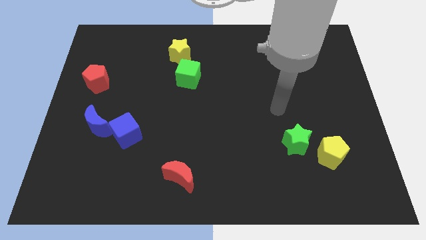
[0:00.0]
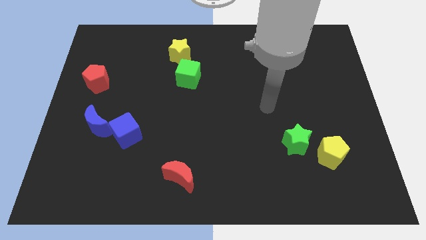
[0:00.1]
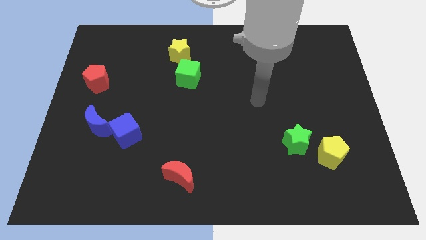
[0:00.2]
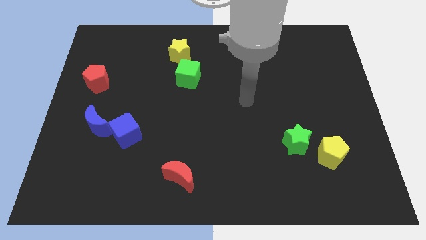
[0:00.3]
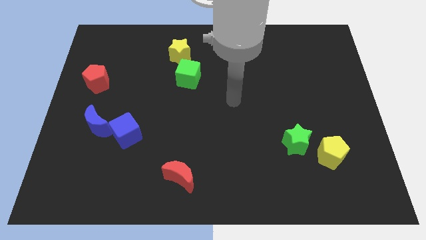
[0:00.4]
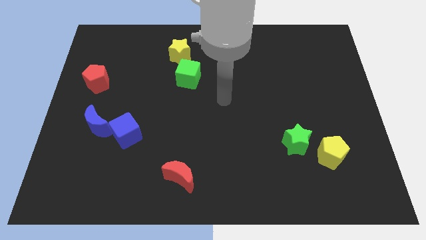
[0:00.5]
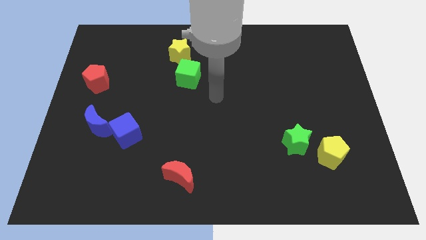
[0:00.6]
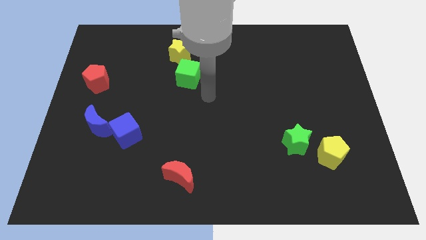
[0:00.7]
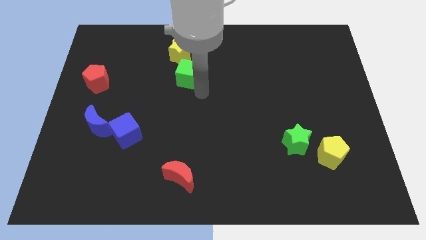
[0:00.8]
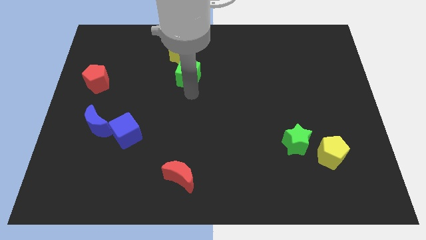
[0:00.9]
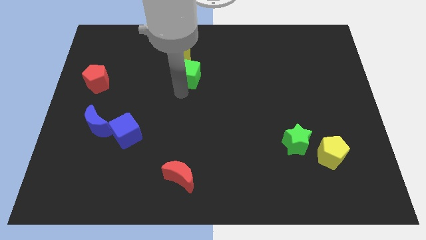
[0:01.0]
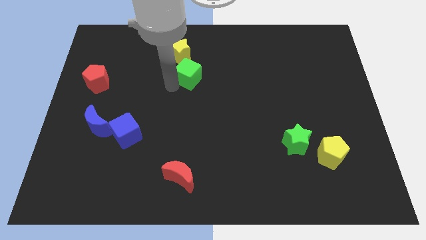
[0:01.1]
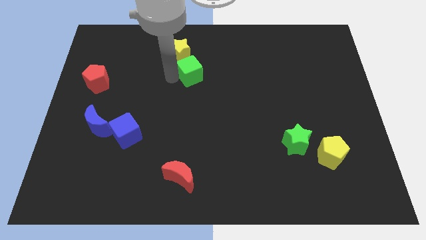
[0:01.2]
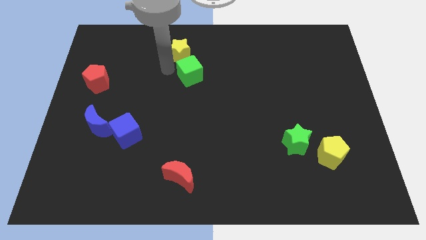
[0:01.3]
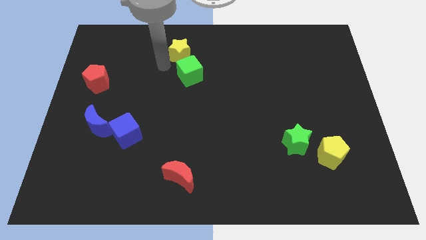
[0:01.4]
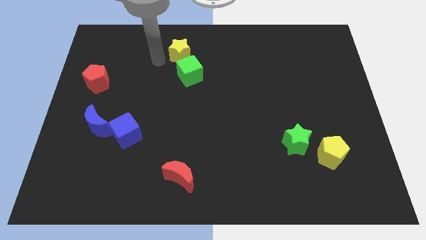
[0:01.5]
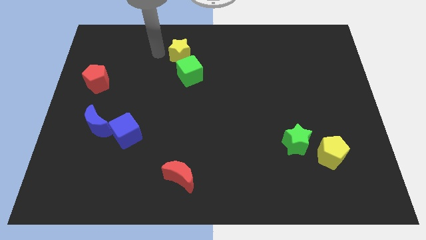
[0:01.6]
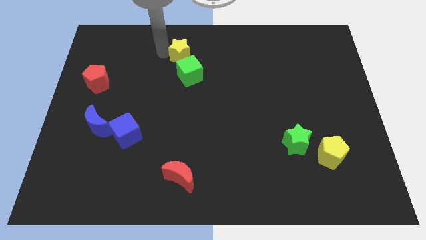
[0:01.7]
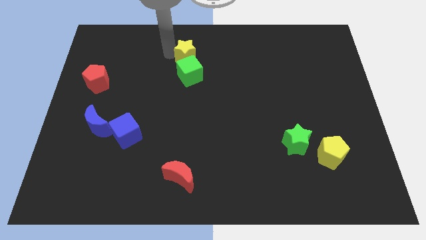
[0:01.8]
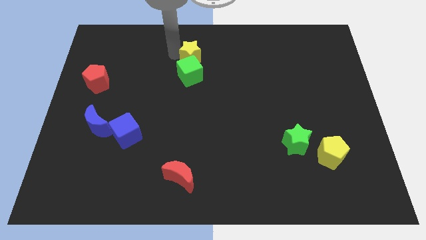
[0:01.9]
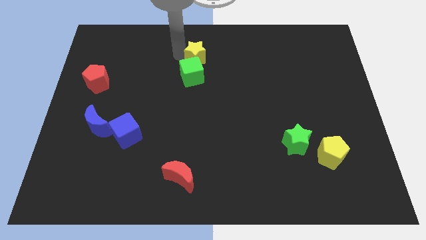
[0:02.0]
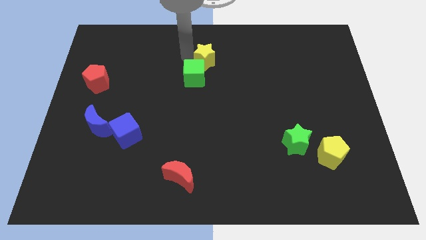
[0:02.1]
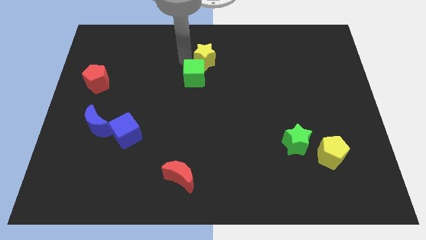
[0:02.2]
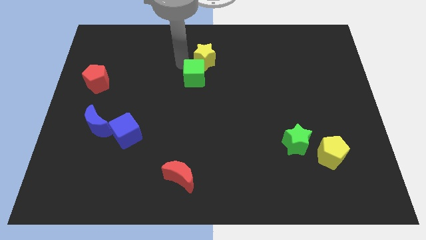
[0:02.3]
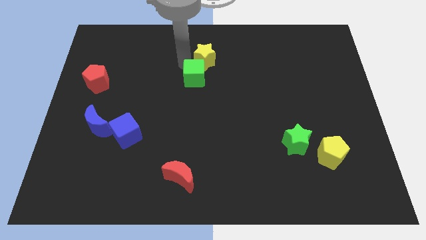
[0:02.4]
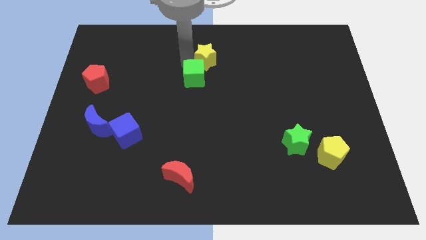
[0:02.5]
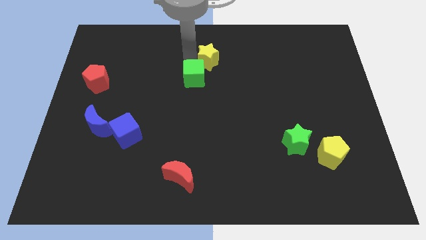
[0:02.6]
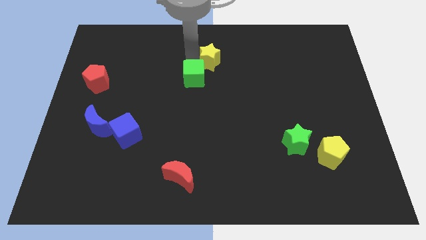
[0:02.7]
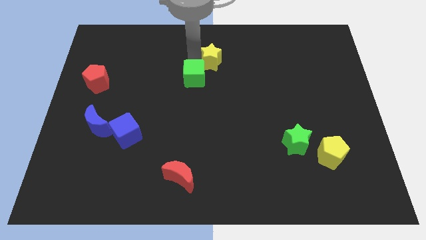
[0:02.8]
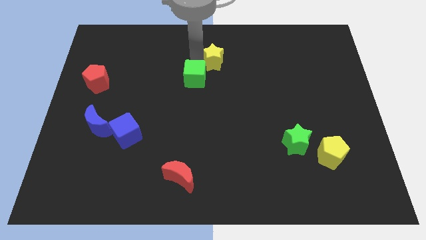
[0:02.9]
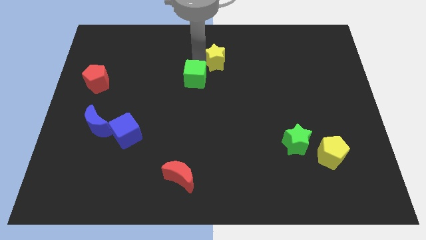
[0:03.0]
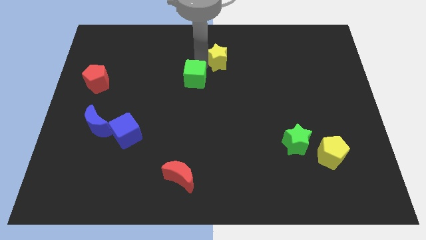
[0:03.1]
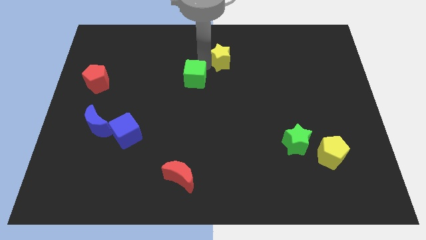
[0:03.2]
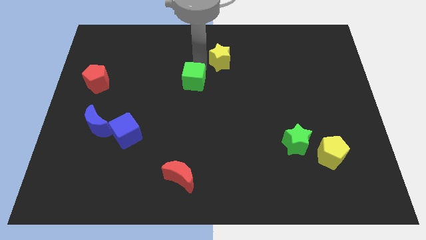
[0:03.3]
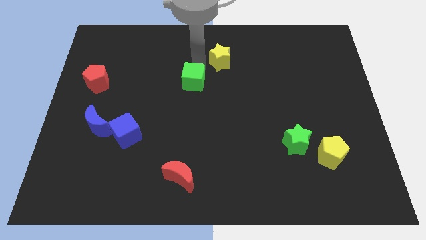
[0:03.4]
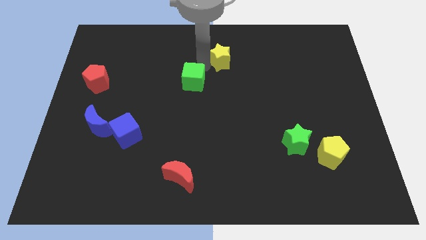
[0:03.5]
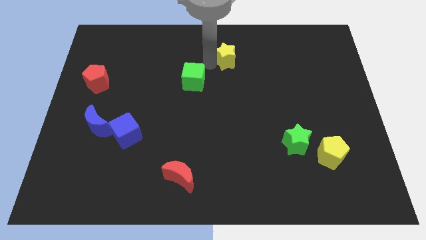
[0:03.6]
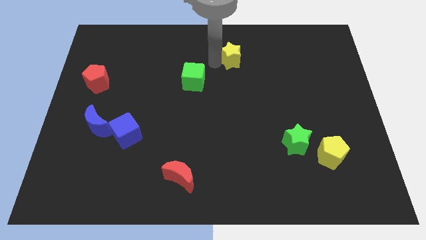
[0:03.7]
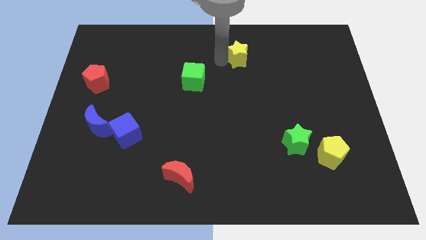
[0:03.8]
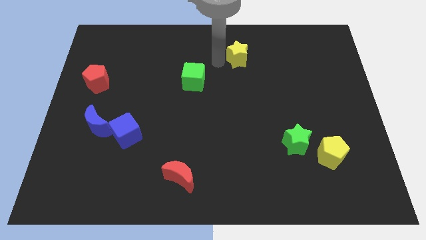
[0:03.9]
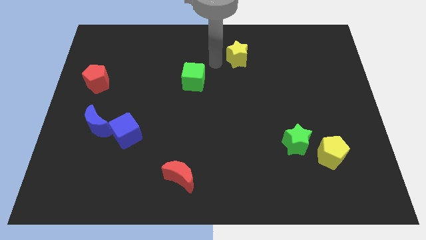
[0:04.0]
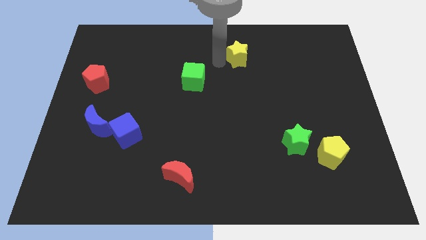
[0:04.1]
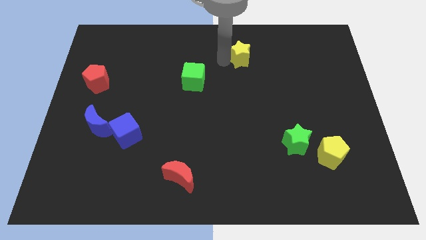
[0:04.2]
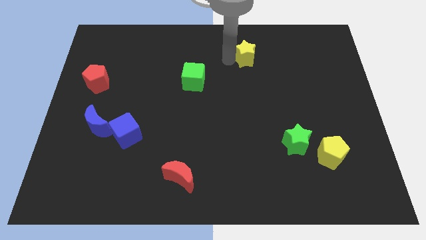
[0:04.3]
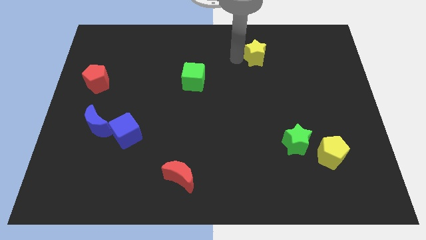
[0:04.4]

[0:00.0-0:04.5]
move the yellow star right

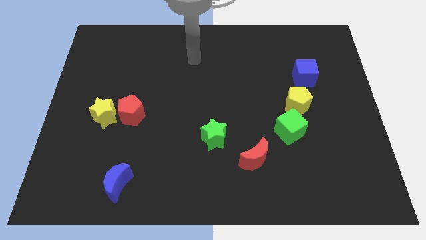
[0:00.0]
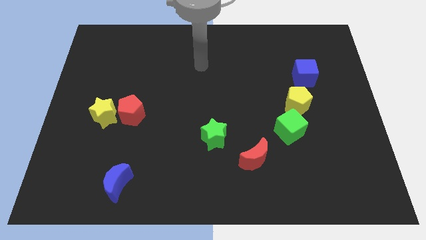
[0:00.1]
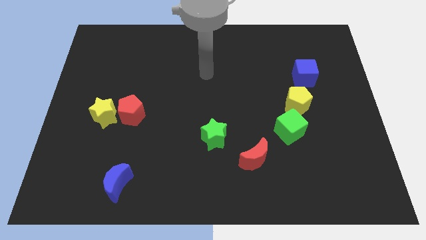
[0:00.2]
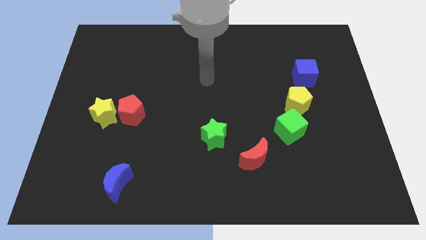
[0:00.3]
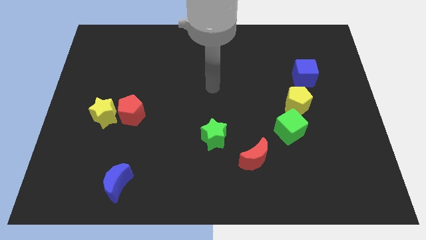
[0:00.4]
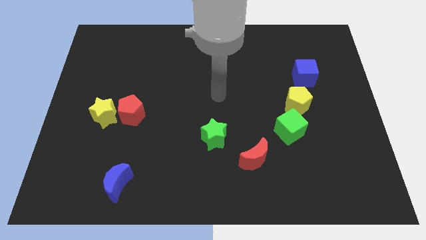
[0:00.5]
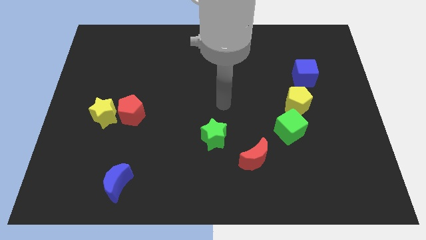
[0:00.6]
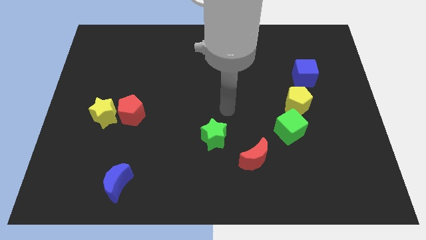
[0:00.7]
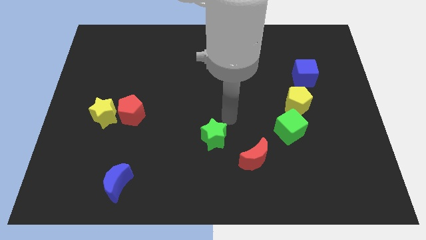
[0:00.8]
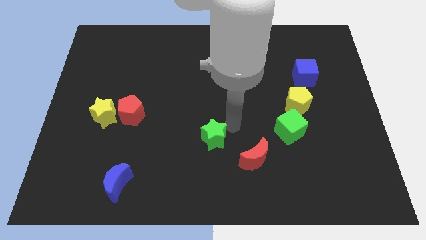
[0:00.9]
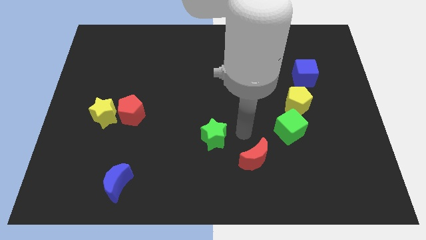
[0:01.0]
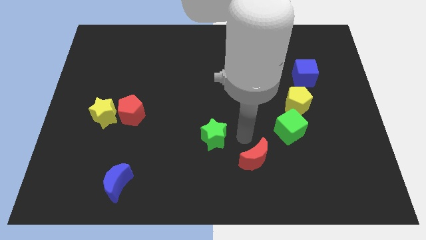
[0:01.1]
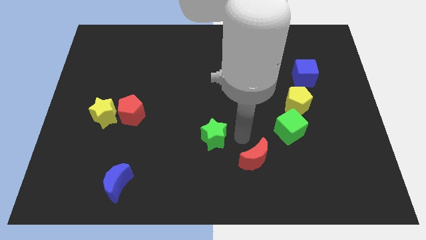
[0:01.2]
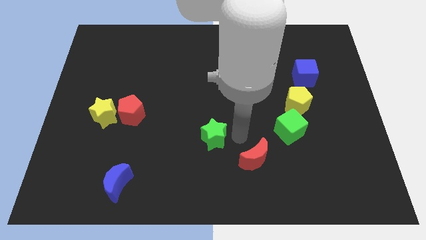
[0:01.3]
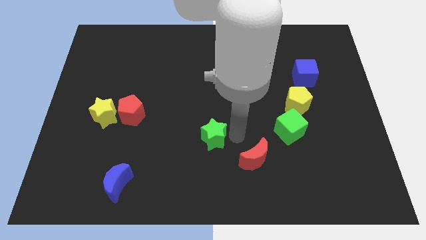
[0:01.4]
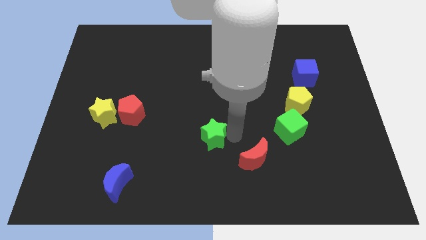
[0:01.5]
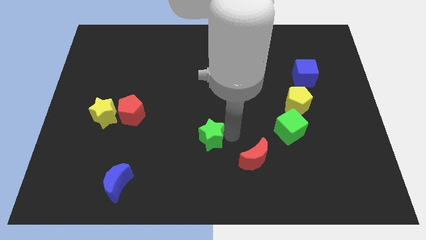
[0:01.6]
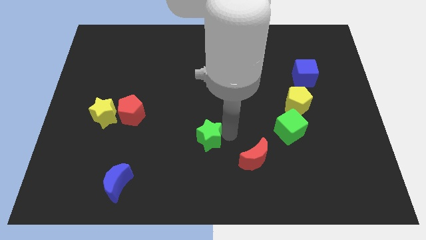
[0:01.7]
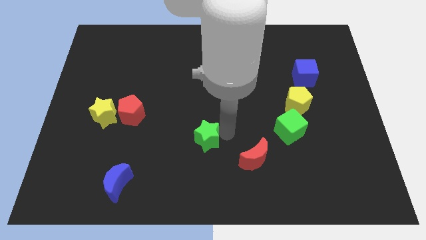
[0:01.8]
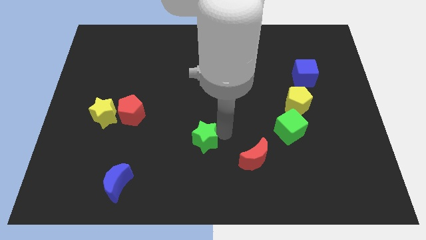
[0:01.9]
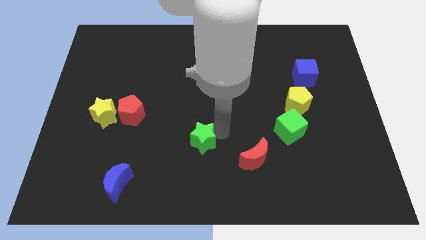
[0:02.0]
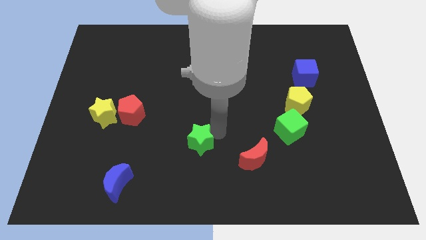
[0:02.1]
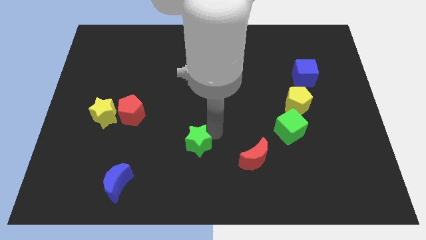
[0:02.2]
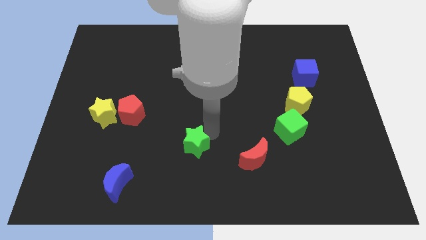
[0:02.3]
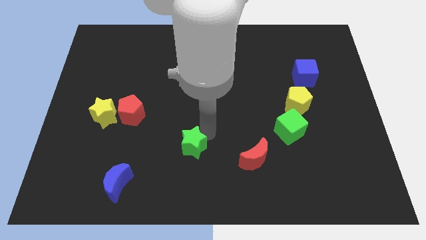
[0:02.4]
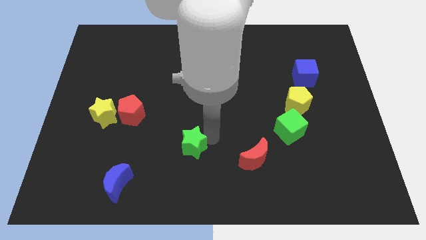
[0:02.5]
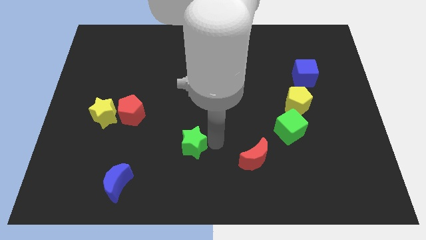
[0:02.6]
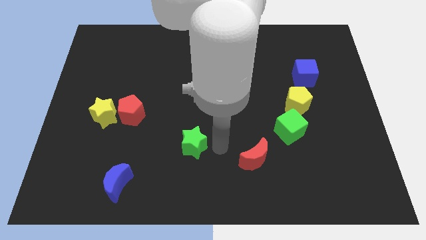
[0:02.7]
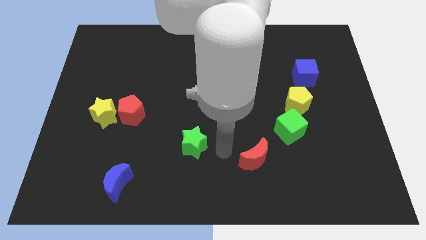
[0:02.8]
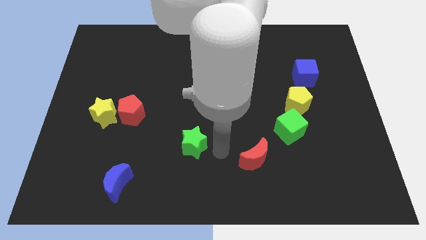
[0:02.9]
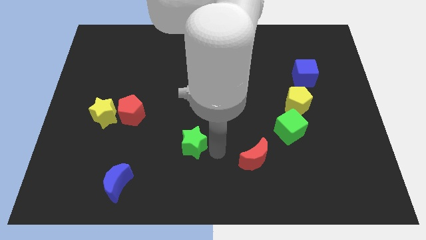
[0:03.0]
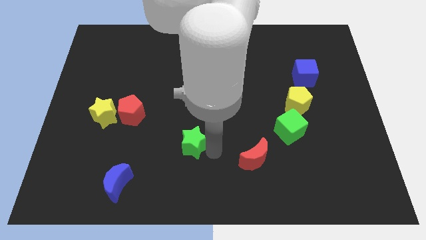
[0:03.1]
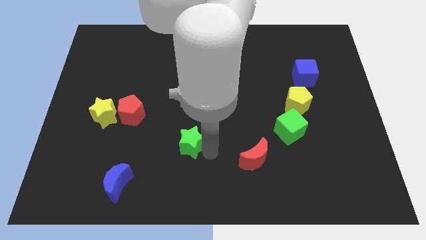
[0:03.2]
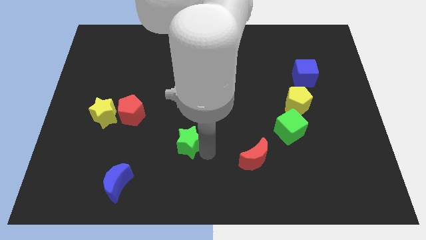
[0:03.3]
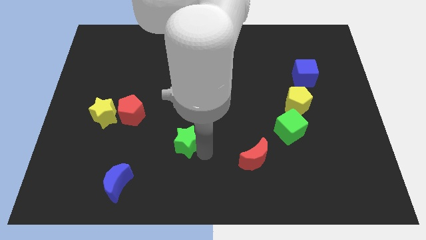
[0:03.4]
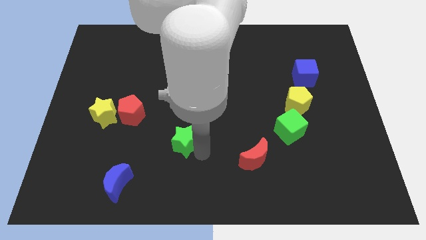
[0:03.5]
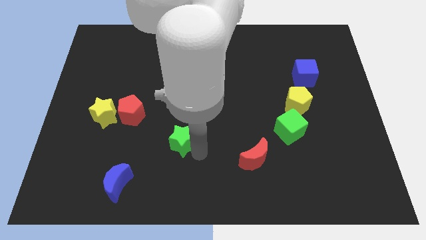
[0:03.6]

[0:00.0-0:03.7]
push the green star a little to the left
